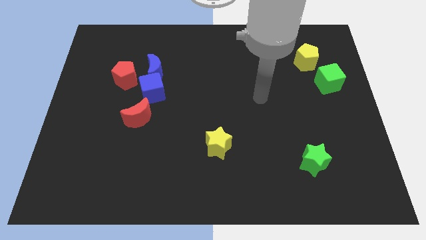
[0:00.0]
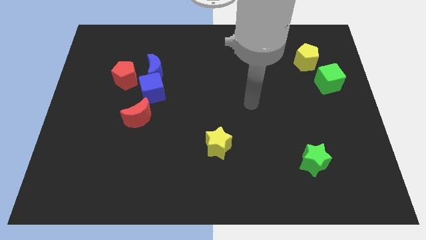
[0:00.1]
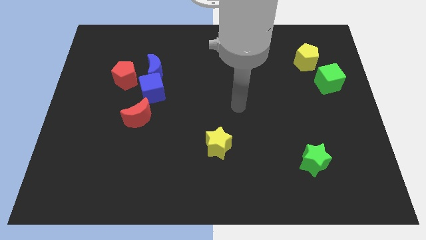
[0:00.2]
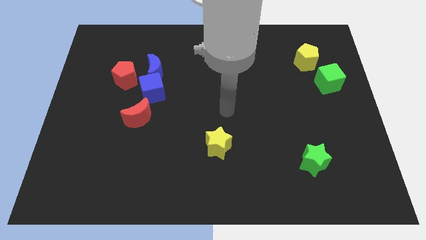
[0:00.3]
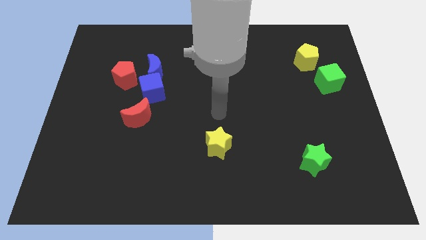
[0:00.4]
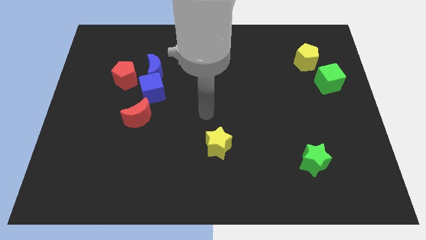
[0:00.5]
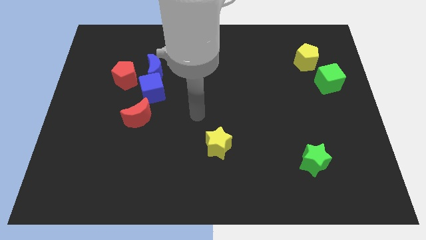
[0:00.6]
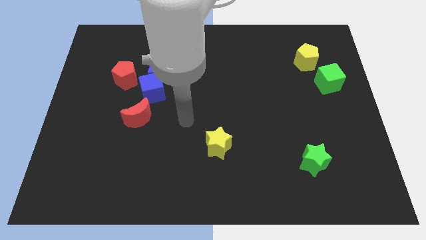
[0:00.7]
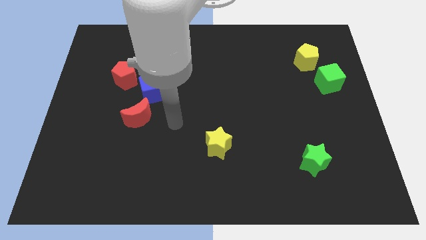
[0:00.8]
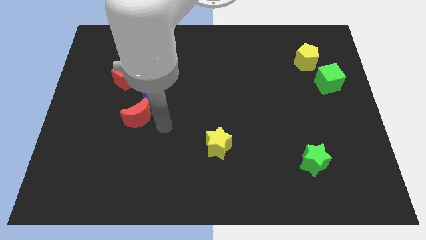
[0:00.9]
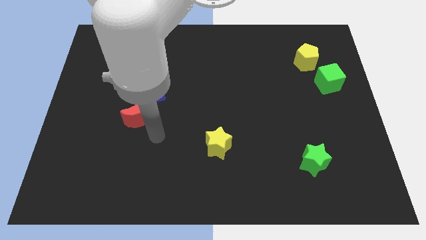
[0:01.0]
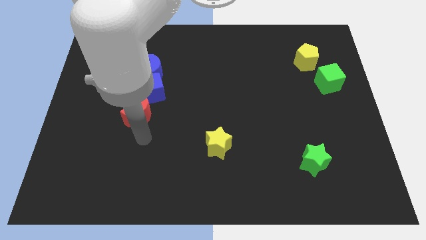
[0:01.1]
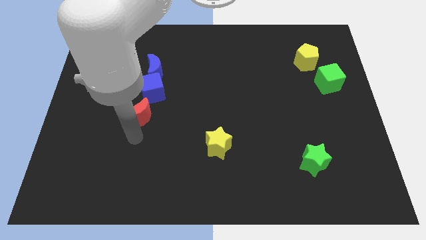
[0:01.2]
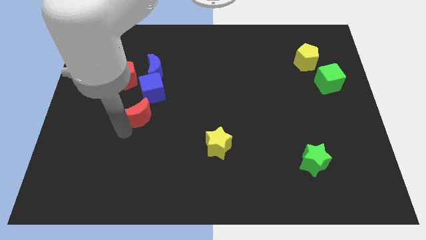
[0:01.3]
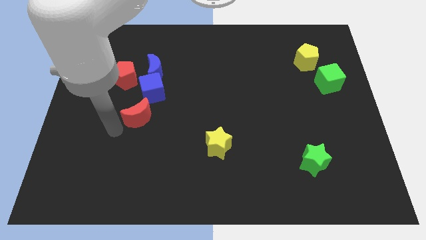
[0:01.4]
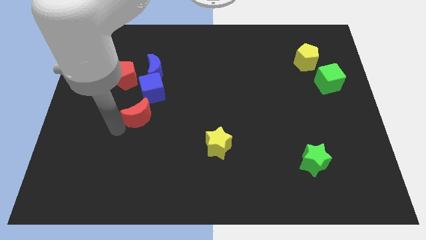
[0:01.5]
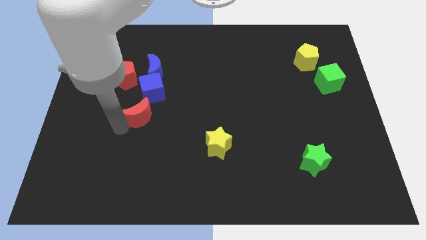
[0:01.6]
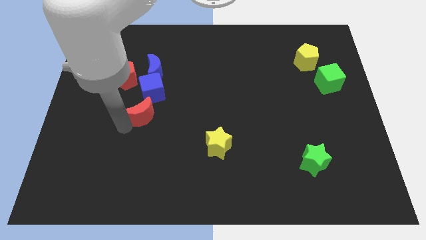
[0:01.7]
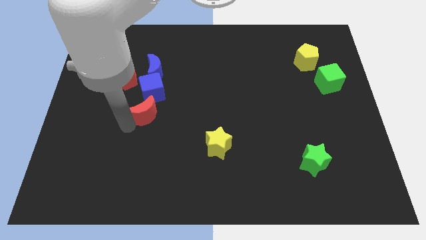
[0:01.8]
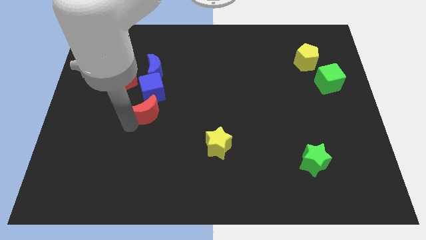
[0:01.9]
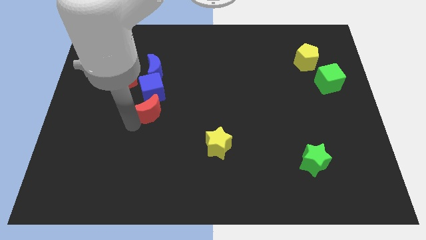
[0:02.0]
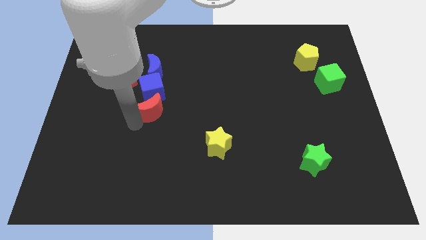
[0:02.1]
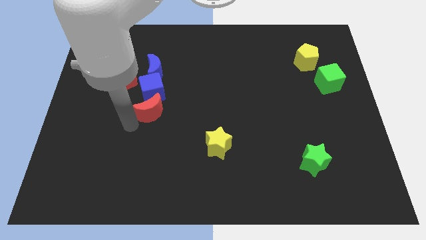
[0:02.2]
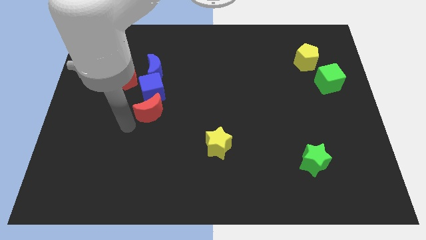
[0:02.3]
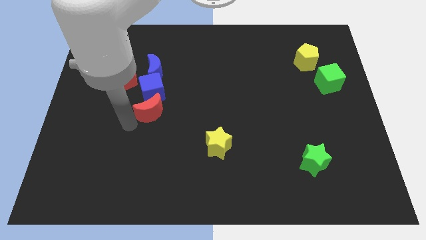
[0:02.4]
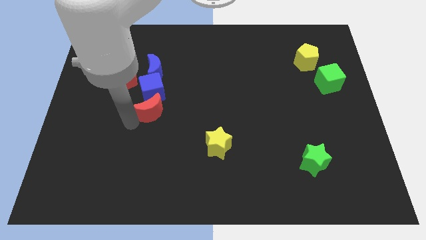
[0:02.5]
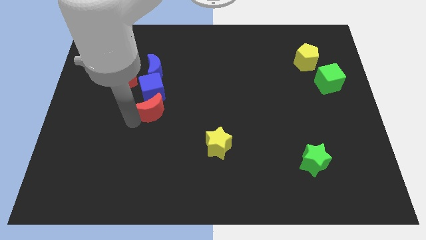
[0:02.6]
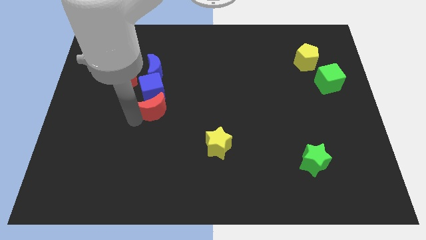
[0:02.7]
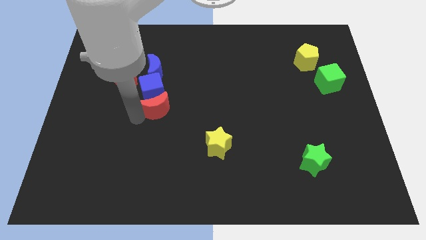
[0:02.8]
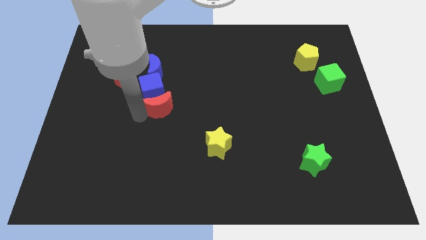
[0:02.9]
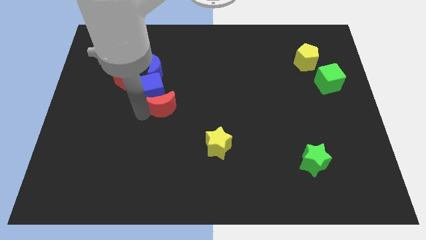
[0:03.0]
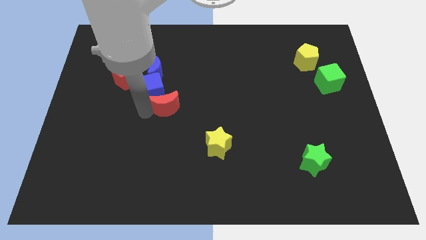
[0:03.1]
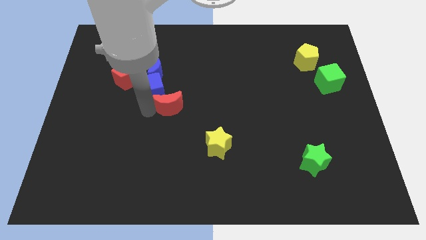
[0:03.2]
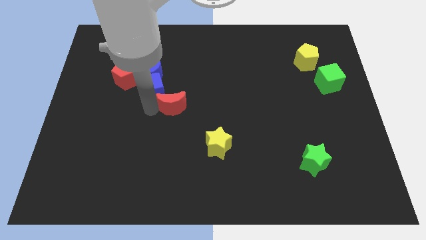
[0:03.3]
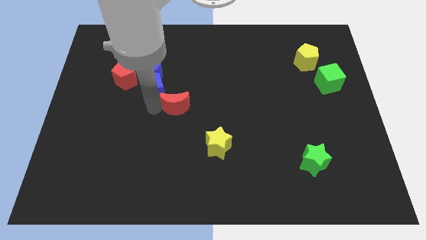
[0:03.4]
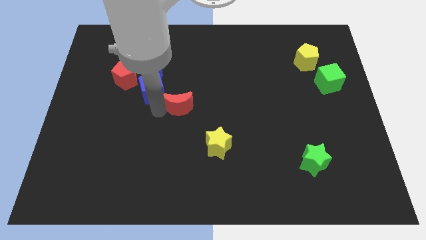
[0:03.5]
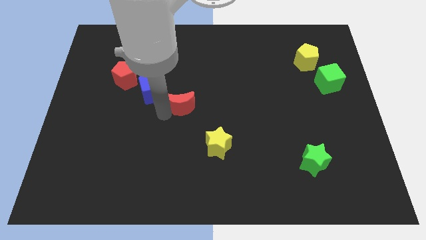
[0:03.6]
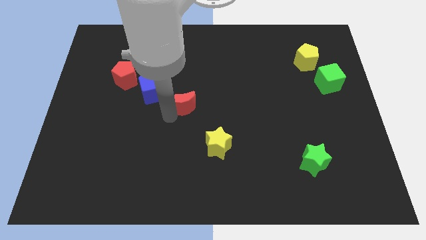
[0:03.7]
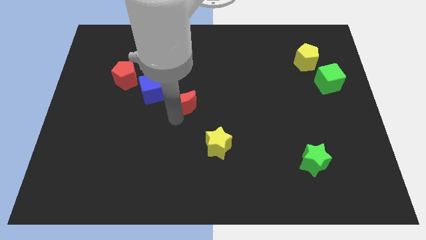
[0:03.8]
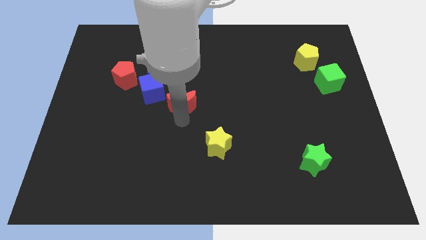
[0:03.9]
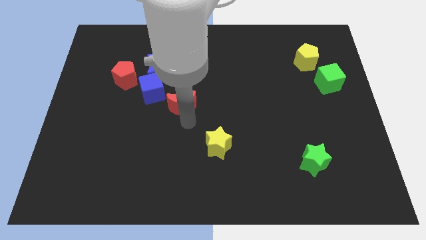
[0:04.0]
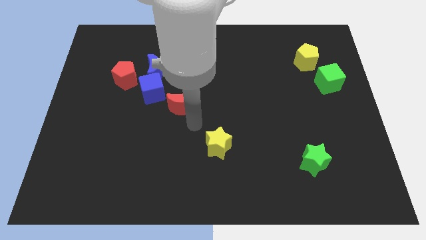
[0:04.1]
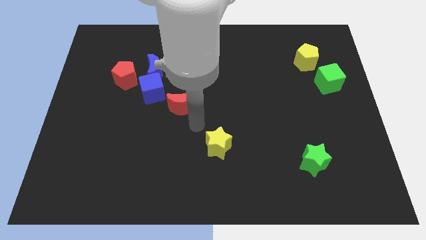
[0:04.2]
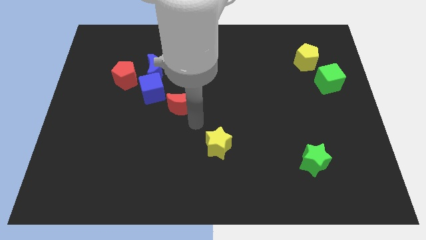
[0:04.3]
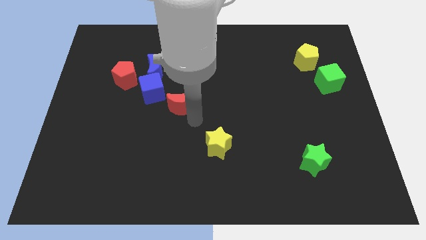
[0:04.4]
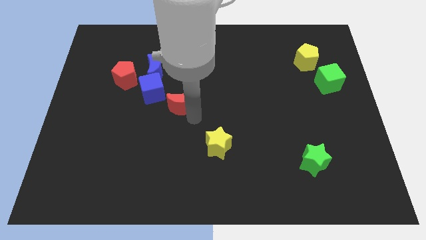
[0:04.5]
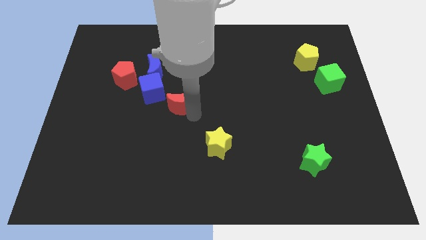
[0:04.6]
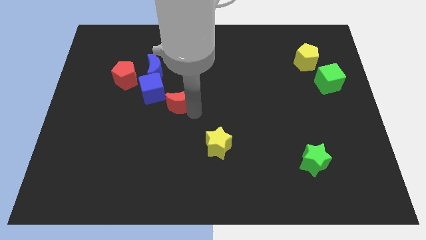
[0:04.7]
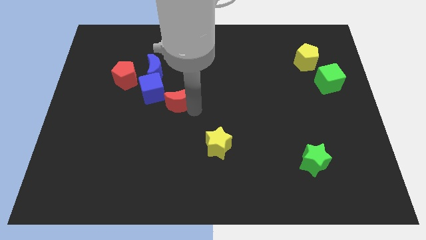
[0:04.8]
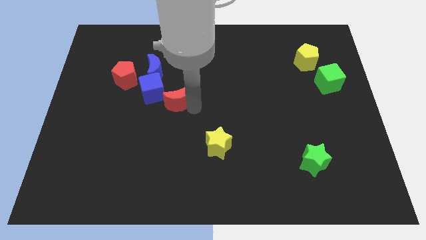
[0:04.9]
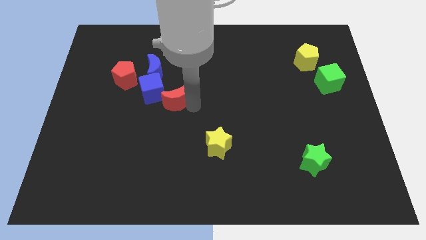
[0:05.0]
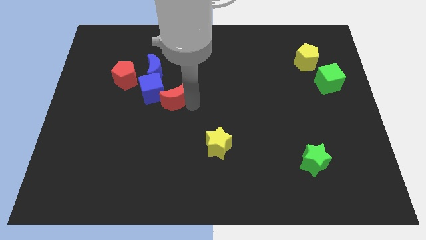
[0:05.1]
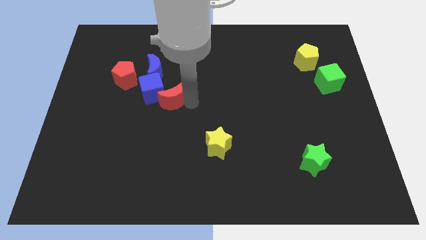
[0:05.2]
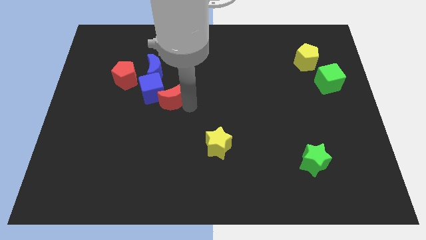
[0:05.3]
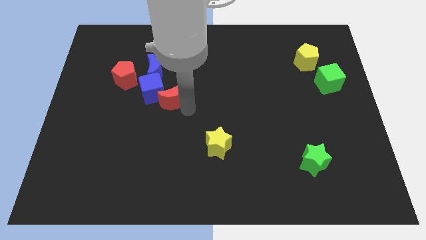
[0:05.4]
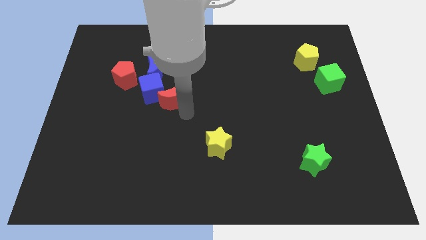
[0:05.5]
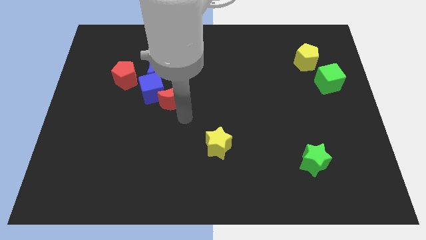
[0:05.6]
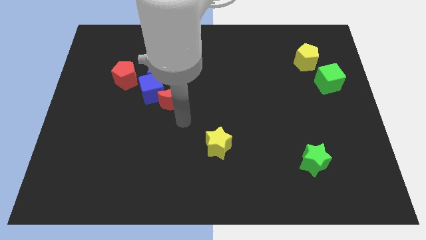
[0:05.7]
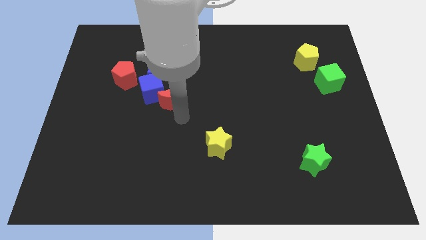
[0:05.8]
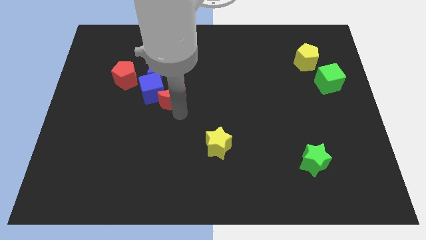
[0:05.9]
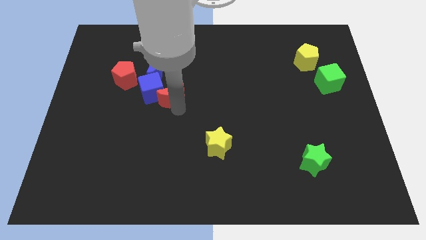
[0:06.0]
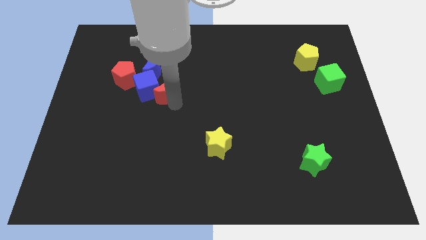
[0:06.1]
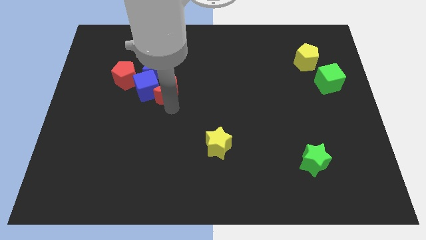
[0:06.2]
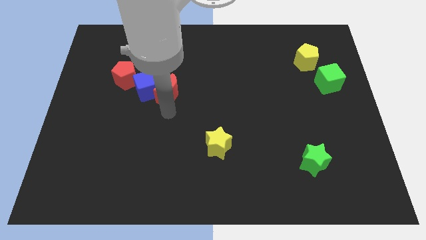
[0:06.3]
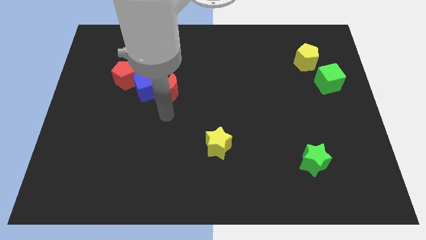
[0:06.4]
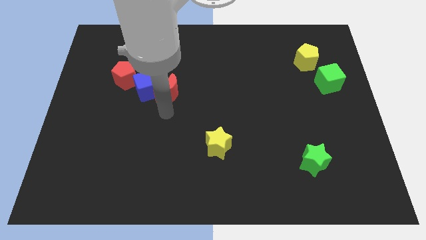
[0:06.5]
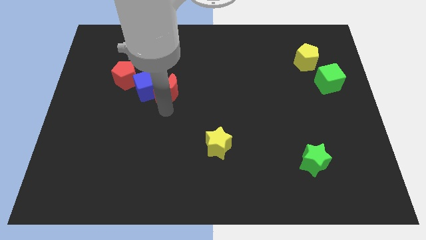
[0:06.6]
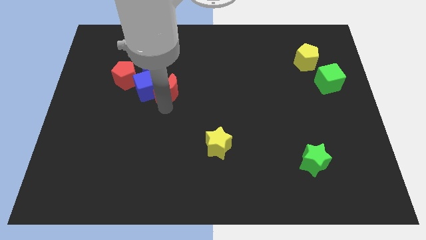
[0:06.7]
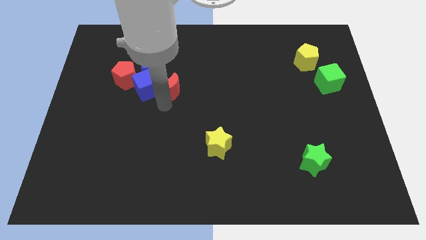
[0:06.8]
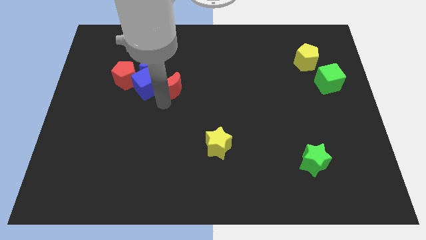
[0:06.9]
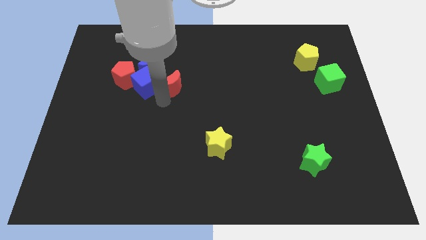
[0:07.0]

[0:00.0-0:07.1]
slide the red moon a little up

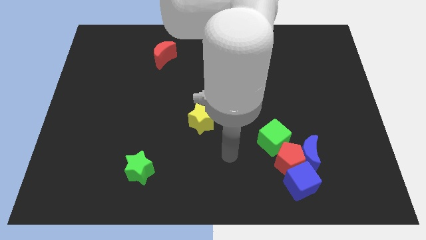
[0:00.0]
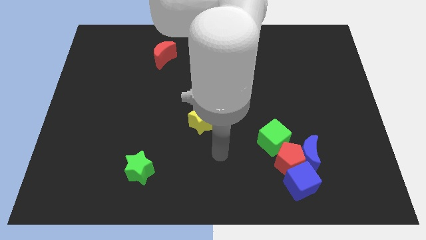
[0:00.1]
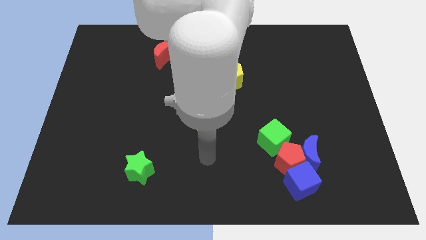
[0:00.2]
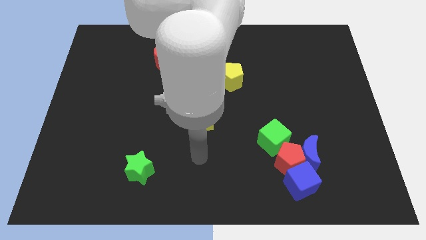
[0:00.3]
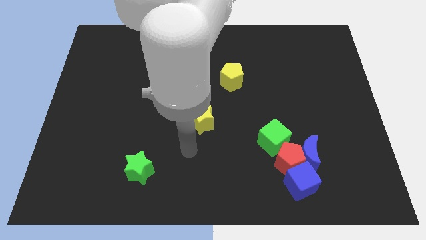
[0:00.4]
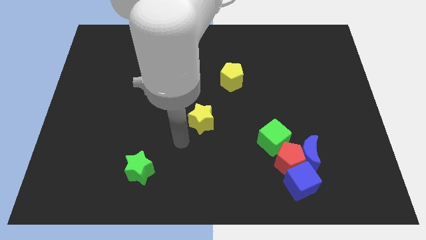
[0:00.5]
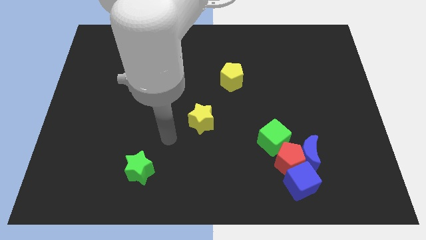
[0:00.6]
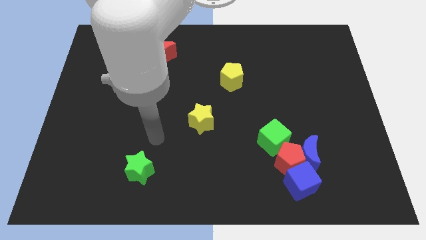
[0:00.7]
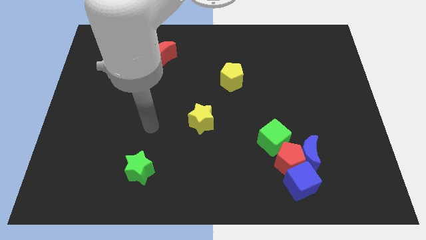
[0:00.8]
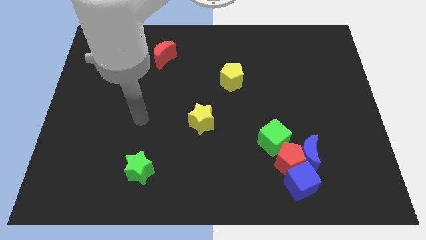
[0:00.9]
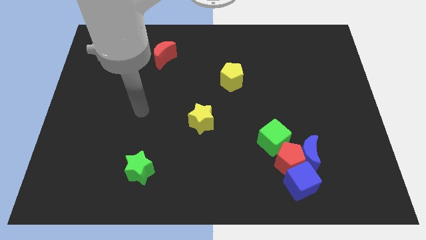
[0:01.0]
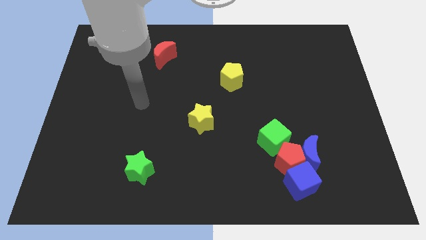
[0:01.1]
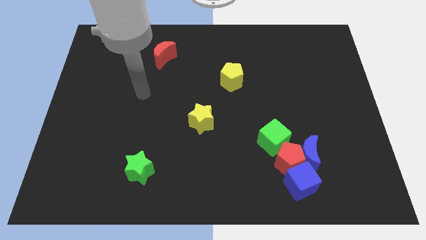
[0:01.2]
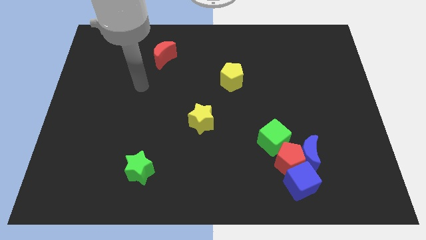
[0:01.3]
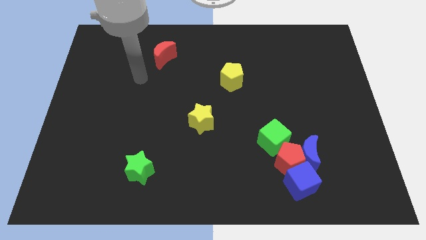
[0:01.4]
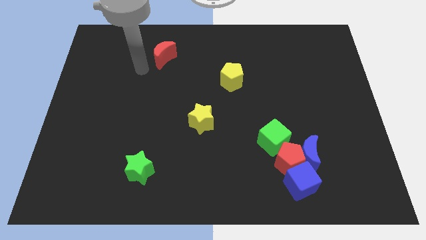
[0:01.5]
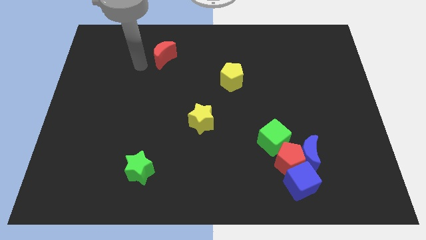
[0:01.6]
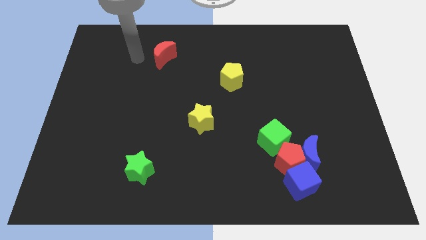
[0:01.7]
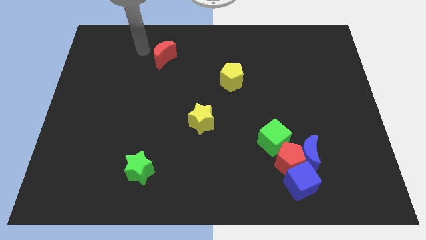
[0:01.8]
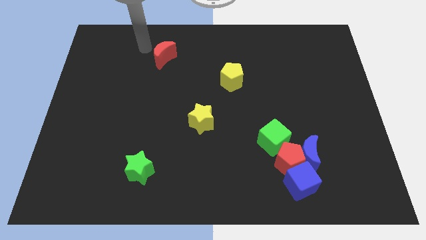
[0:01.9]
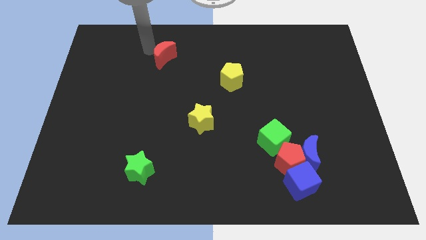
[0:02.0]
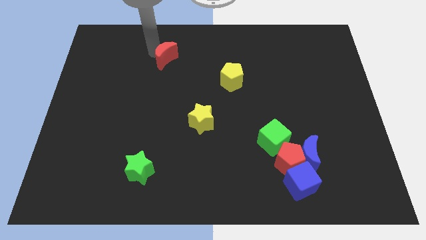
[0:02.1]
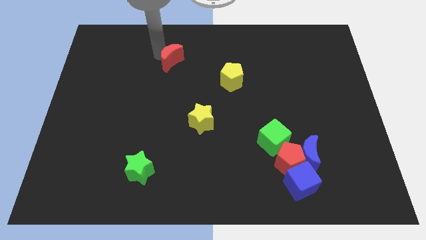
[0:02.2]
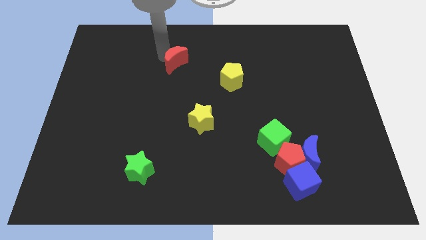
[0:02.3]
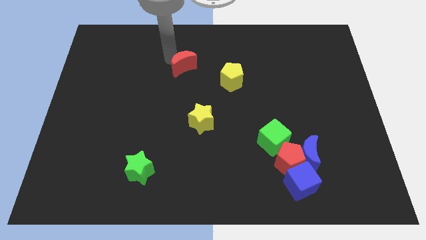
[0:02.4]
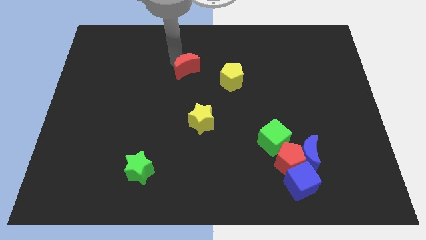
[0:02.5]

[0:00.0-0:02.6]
slide the red moon a little down and right diagonally
